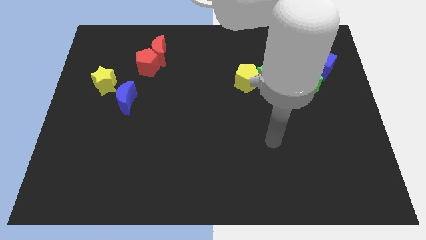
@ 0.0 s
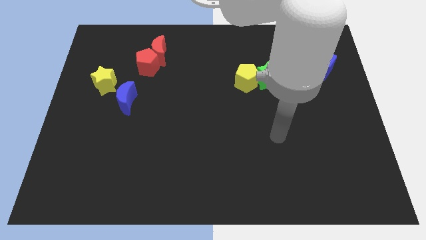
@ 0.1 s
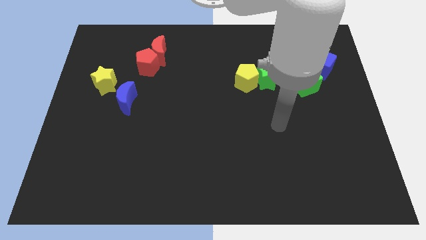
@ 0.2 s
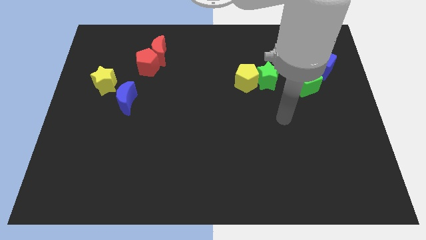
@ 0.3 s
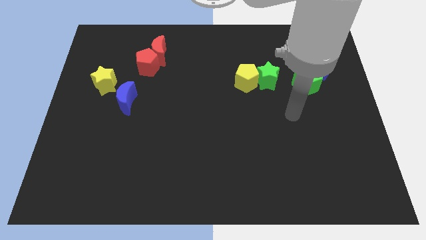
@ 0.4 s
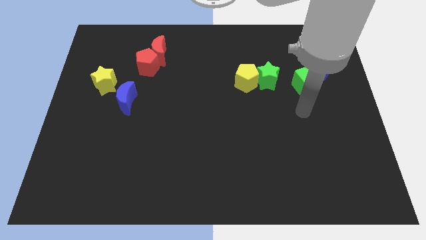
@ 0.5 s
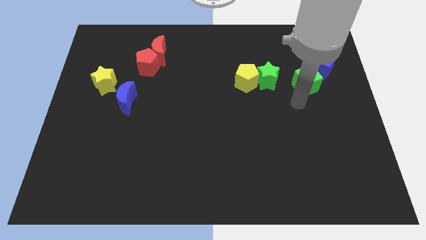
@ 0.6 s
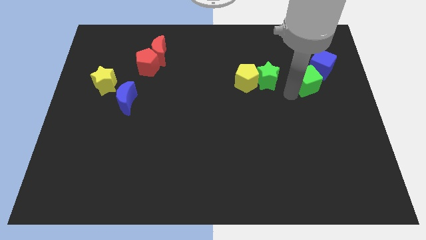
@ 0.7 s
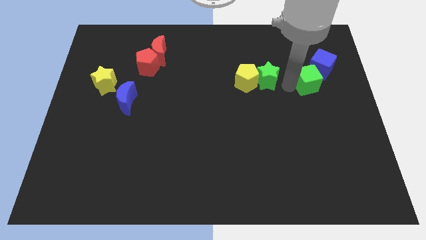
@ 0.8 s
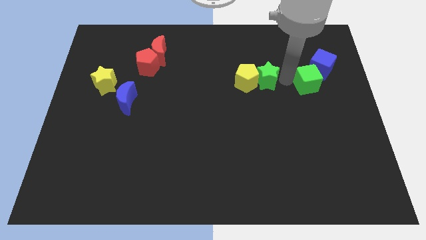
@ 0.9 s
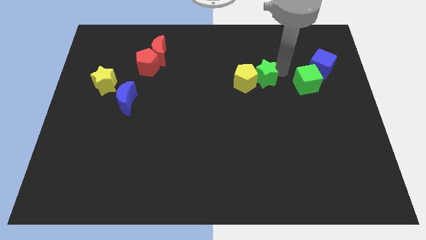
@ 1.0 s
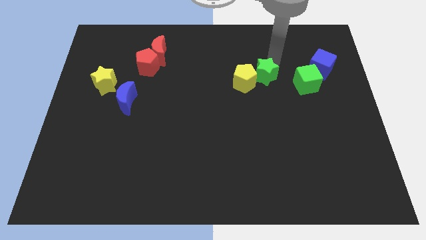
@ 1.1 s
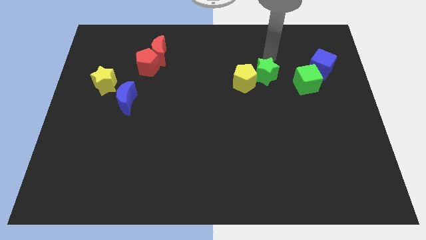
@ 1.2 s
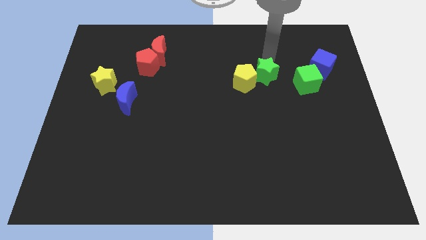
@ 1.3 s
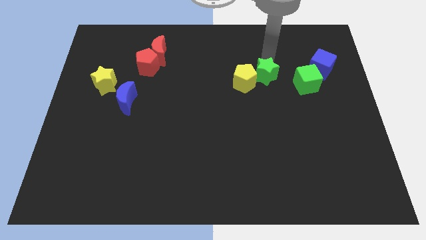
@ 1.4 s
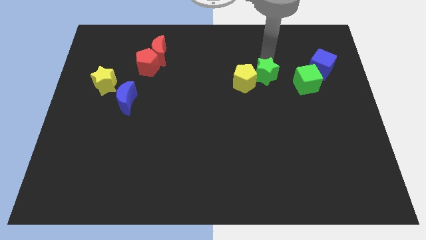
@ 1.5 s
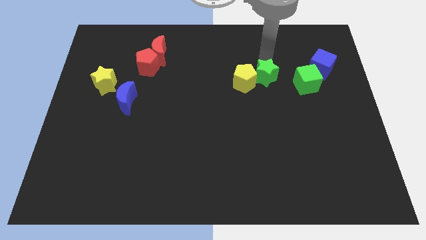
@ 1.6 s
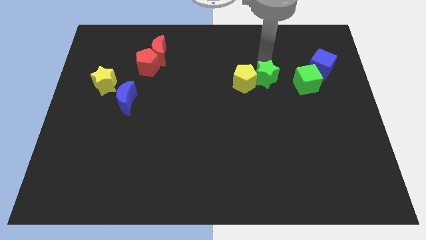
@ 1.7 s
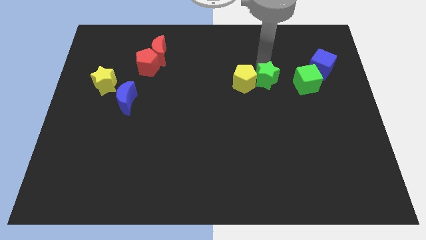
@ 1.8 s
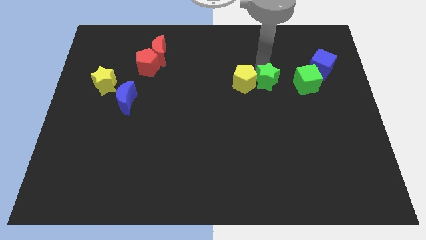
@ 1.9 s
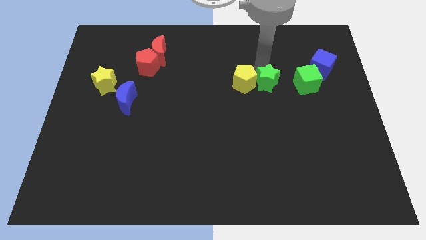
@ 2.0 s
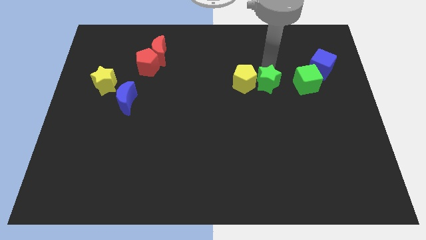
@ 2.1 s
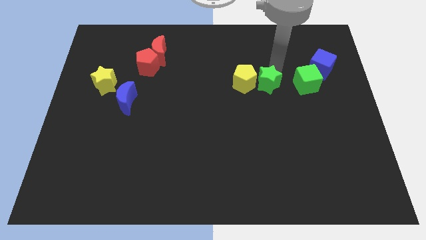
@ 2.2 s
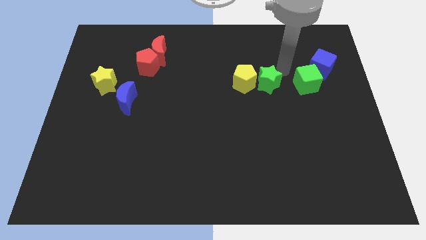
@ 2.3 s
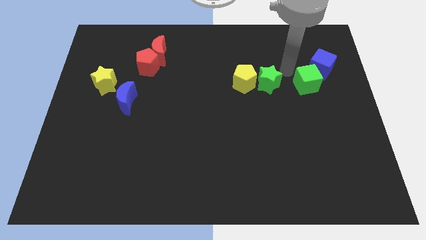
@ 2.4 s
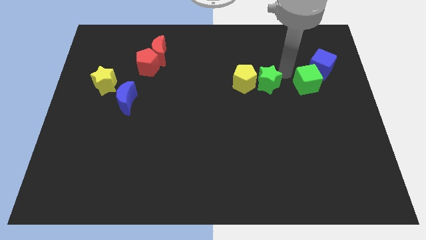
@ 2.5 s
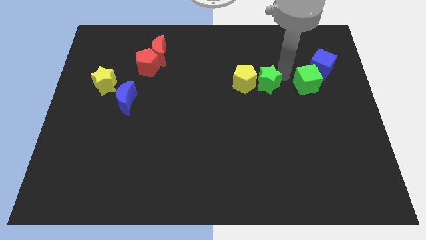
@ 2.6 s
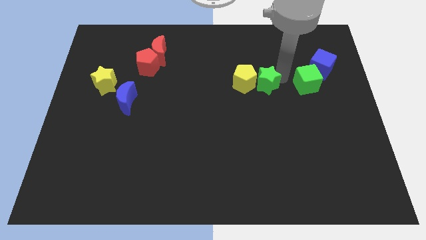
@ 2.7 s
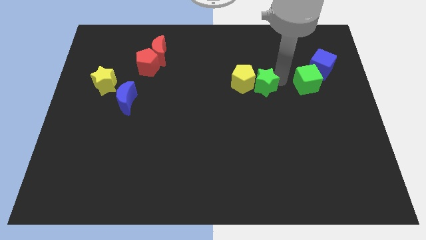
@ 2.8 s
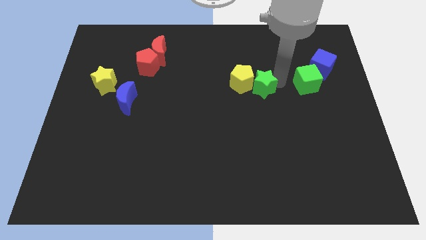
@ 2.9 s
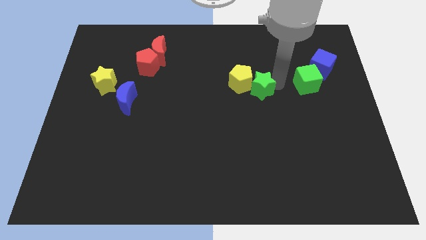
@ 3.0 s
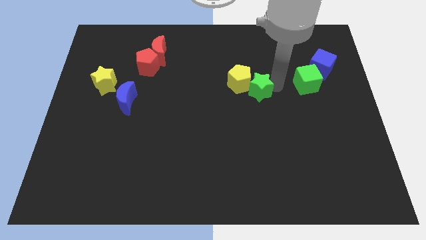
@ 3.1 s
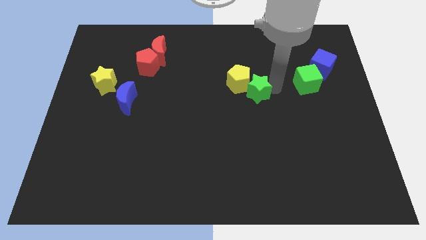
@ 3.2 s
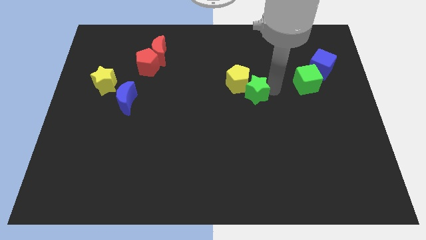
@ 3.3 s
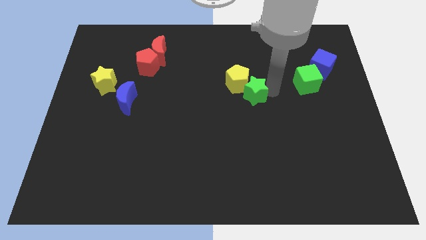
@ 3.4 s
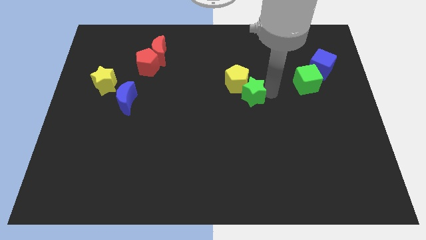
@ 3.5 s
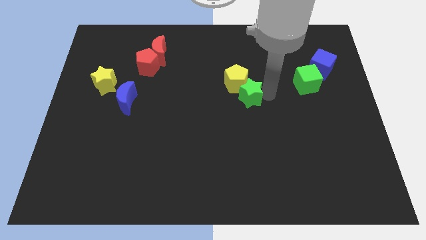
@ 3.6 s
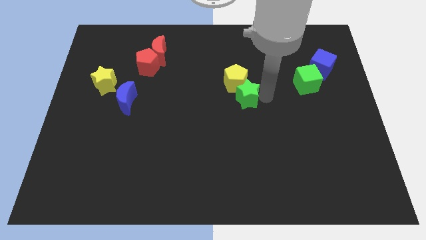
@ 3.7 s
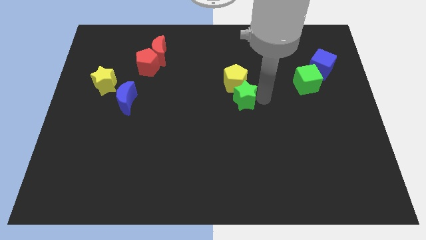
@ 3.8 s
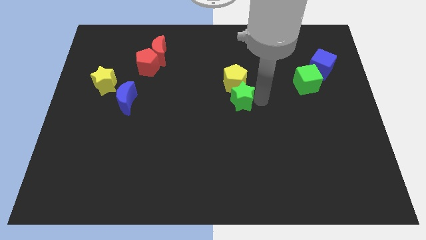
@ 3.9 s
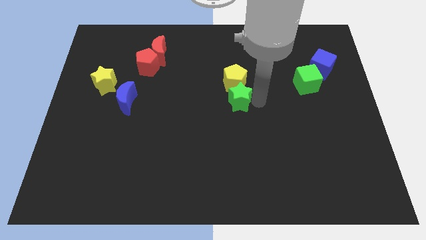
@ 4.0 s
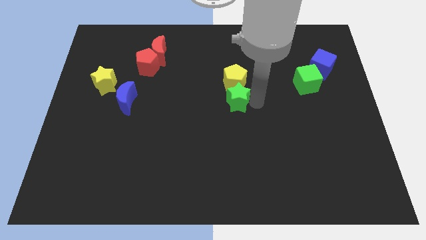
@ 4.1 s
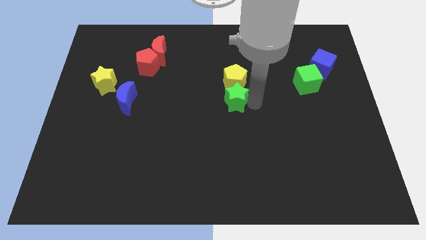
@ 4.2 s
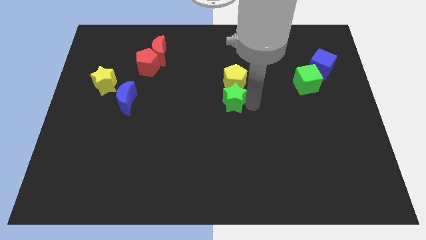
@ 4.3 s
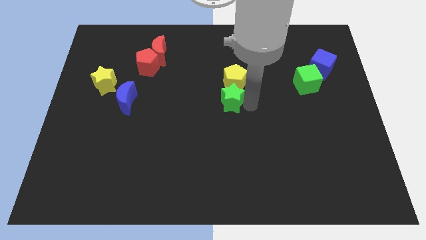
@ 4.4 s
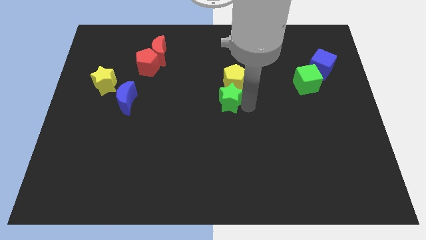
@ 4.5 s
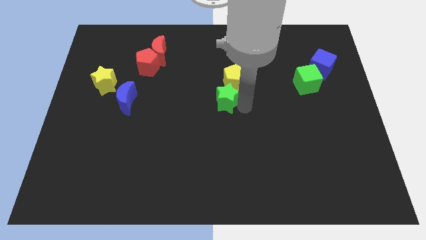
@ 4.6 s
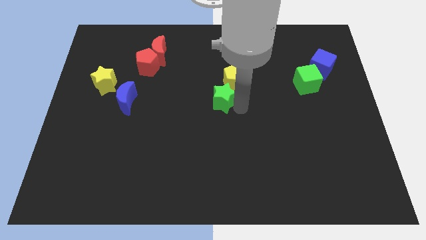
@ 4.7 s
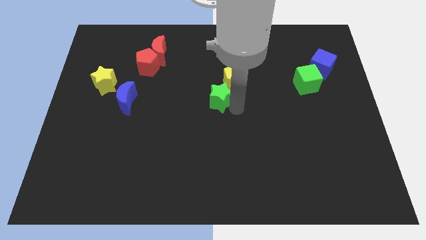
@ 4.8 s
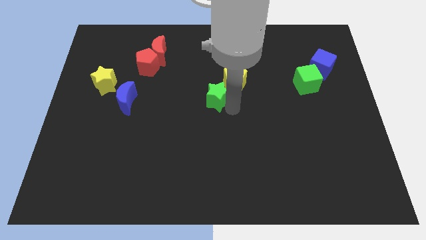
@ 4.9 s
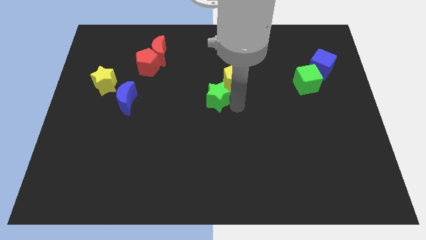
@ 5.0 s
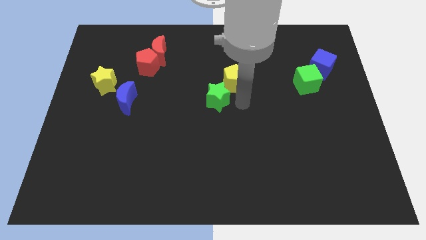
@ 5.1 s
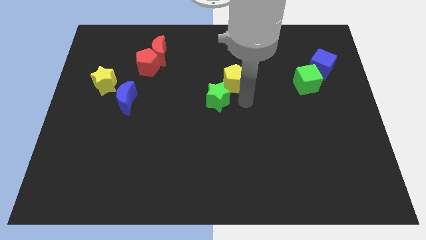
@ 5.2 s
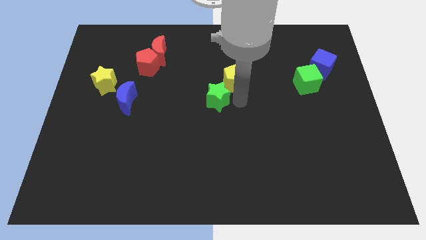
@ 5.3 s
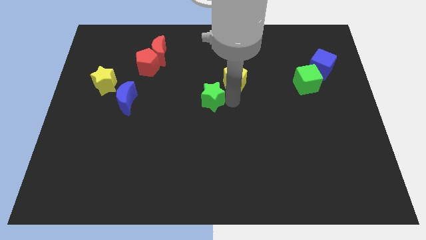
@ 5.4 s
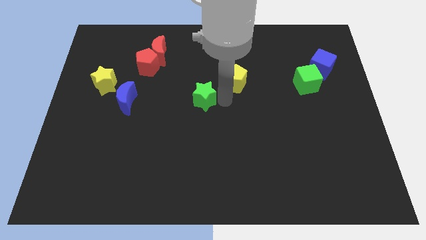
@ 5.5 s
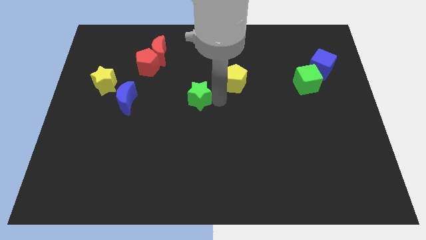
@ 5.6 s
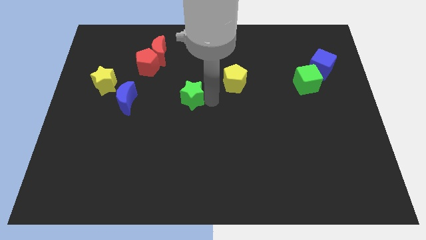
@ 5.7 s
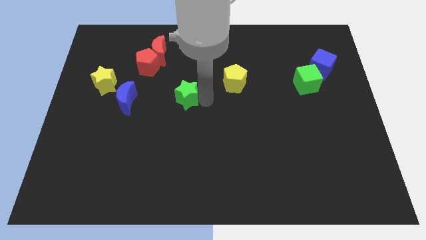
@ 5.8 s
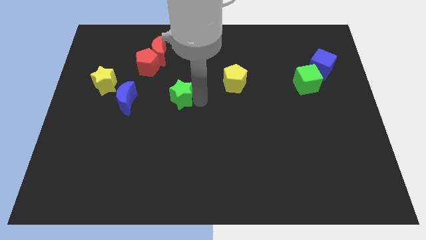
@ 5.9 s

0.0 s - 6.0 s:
push the green star to the left

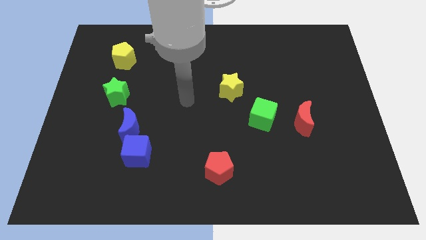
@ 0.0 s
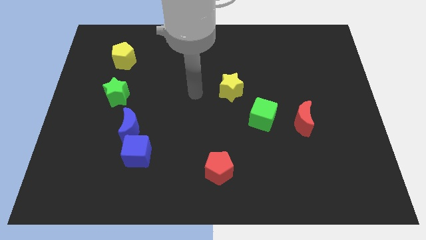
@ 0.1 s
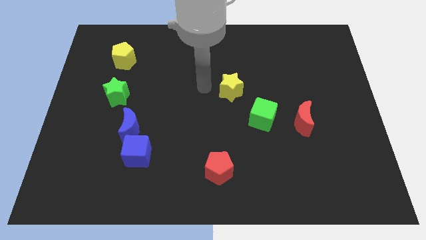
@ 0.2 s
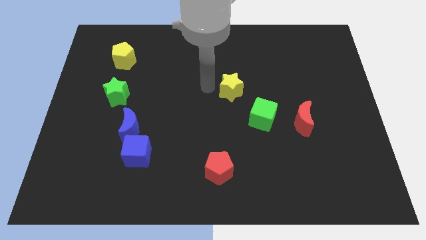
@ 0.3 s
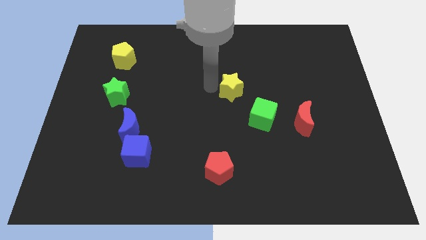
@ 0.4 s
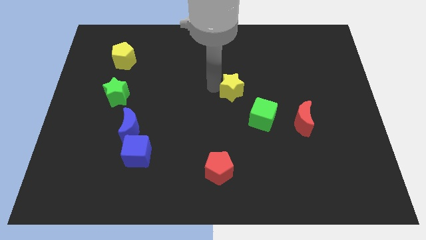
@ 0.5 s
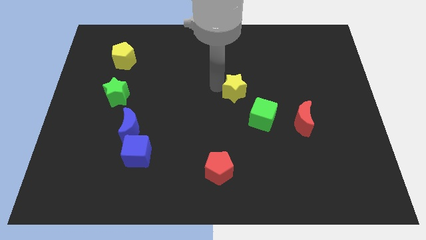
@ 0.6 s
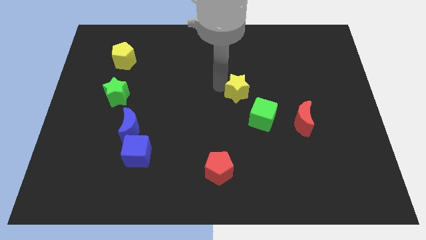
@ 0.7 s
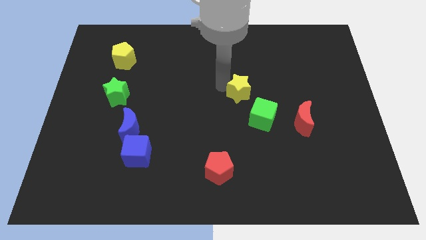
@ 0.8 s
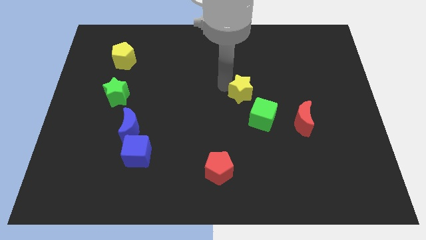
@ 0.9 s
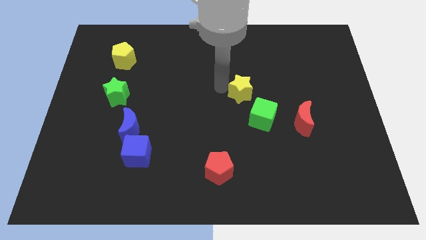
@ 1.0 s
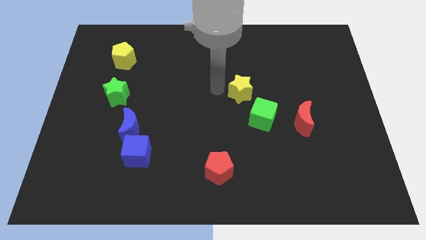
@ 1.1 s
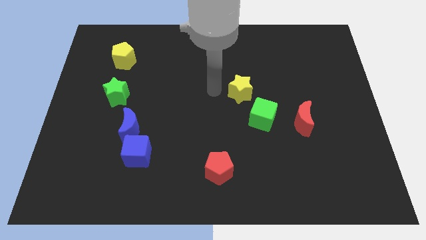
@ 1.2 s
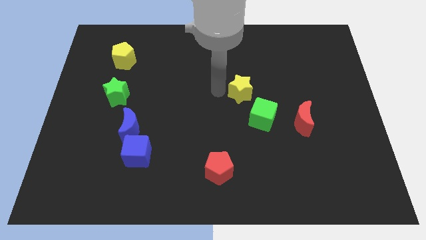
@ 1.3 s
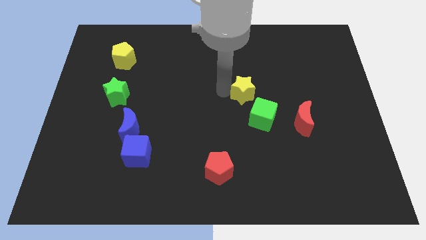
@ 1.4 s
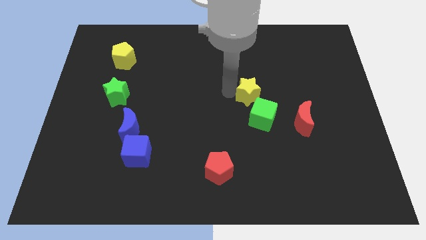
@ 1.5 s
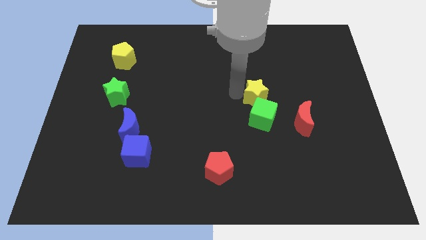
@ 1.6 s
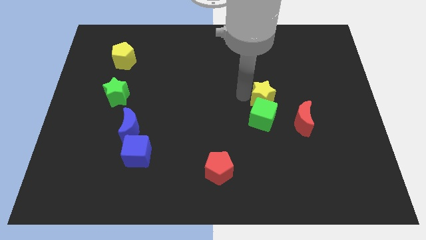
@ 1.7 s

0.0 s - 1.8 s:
slightly slide the yellow star right

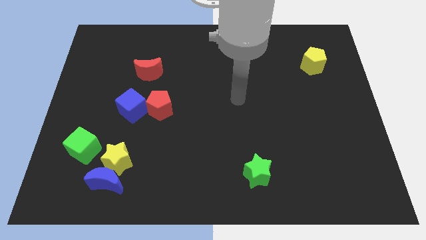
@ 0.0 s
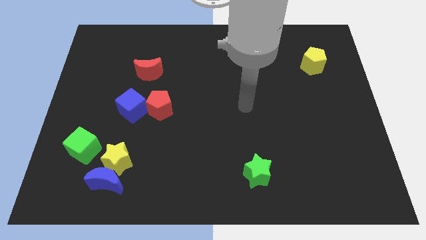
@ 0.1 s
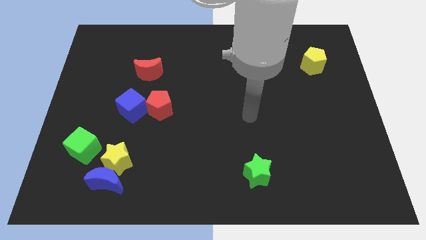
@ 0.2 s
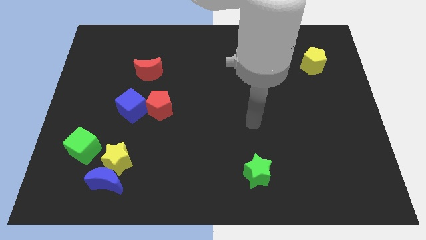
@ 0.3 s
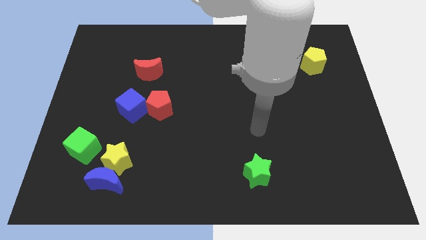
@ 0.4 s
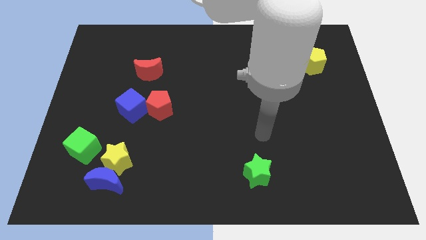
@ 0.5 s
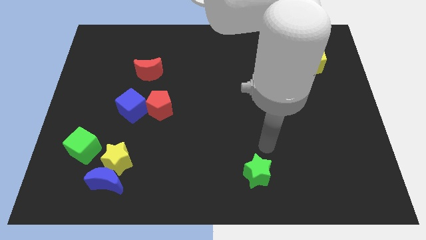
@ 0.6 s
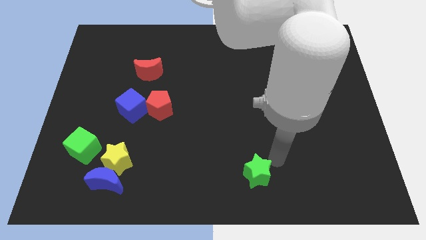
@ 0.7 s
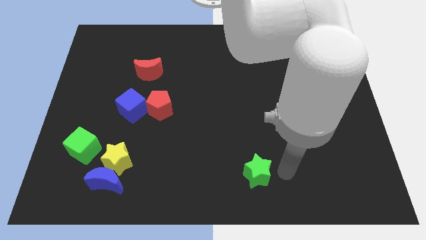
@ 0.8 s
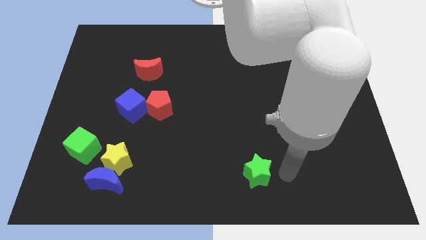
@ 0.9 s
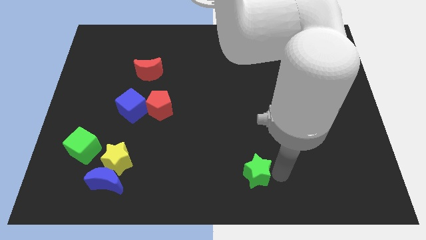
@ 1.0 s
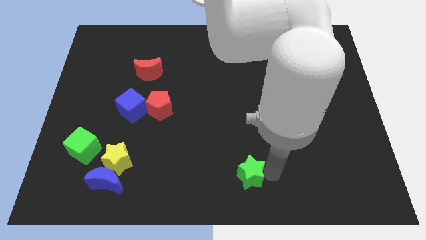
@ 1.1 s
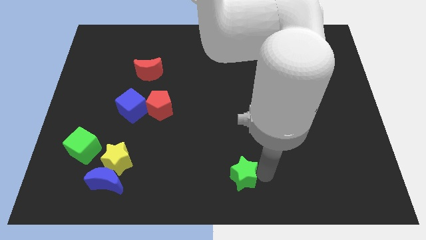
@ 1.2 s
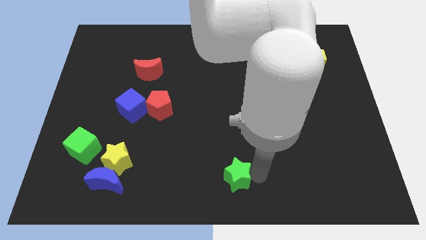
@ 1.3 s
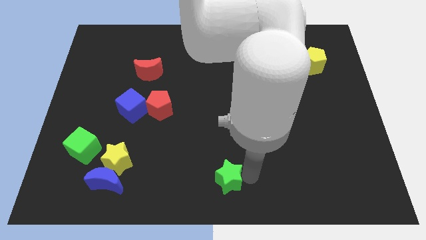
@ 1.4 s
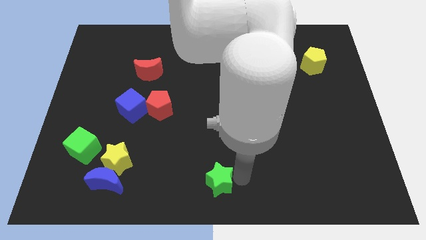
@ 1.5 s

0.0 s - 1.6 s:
push the green star to the left somewhat
